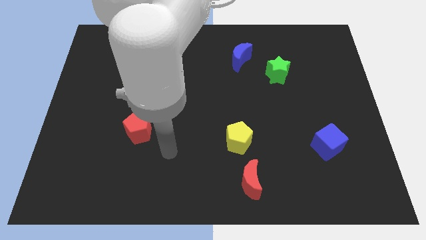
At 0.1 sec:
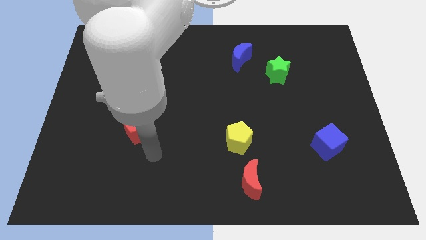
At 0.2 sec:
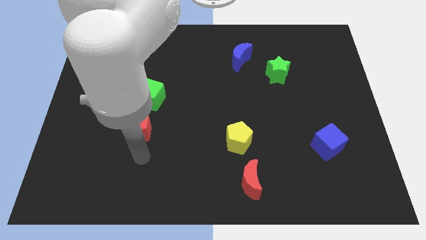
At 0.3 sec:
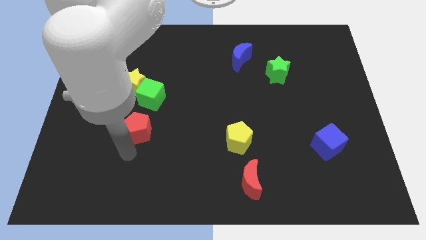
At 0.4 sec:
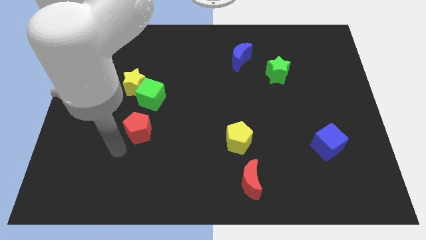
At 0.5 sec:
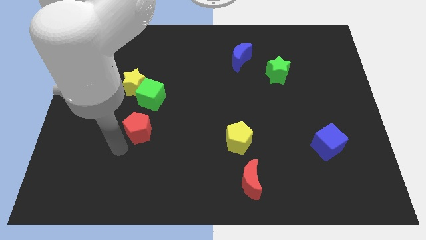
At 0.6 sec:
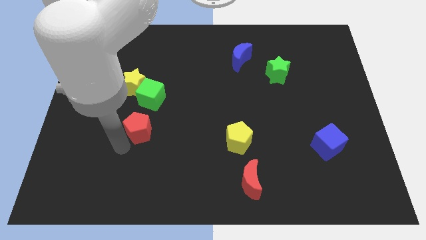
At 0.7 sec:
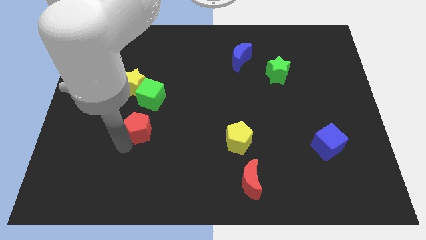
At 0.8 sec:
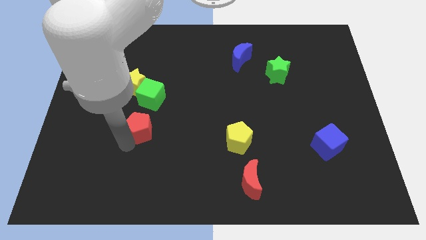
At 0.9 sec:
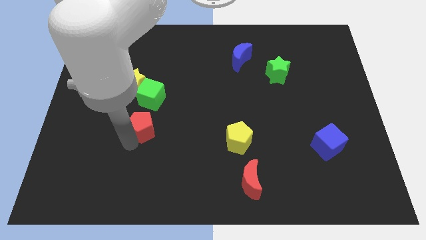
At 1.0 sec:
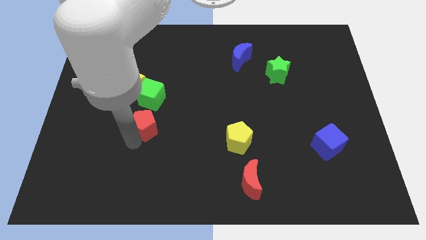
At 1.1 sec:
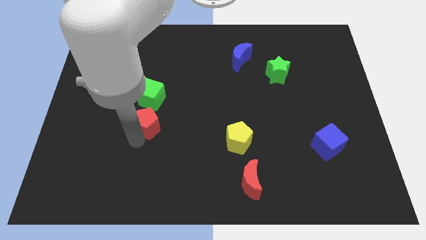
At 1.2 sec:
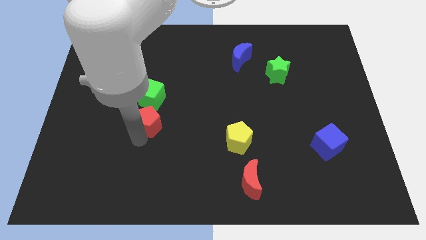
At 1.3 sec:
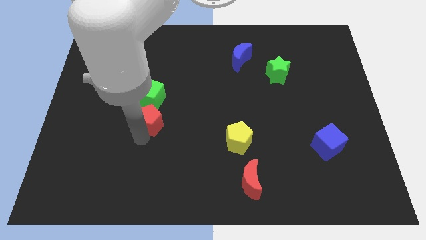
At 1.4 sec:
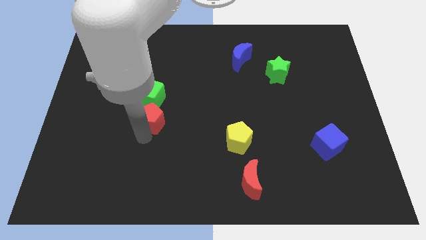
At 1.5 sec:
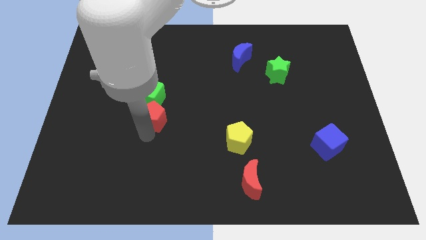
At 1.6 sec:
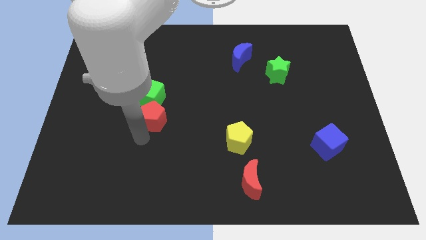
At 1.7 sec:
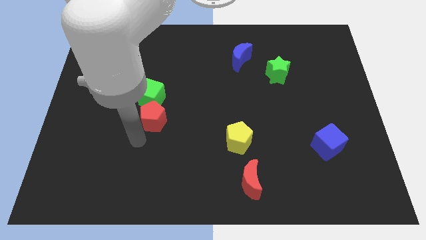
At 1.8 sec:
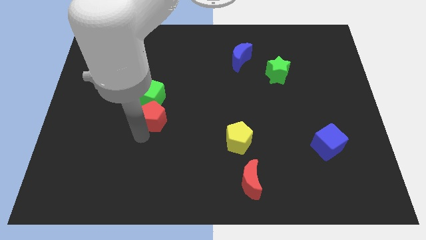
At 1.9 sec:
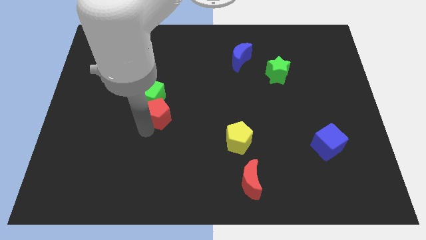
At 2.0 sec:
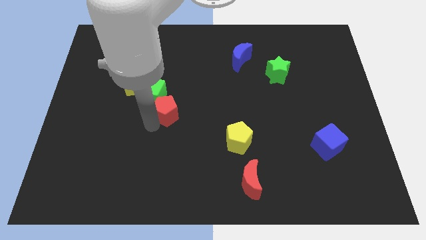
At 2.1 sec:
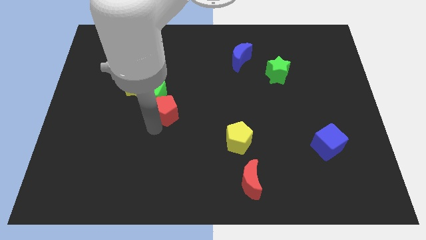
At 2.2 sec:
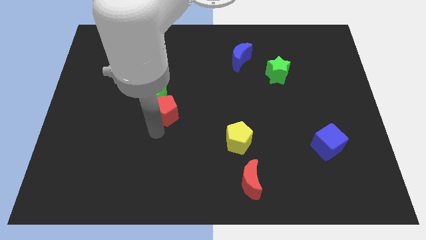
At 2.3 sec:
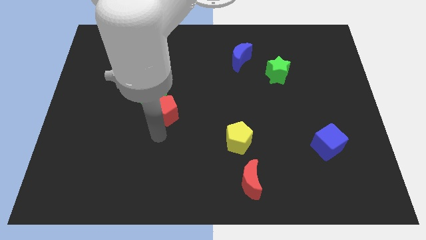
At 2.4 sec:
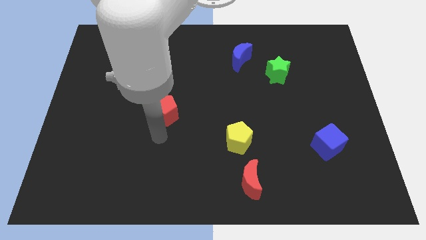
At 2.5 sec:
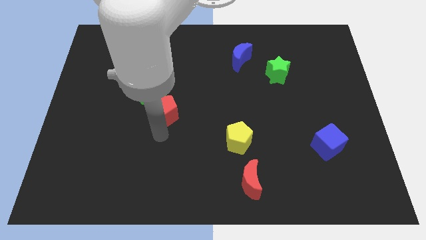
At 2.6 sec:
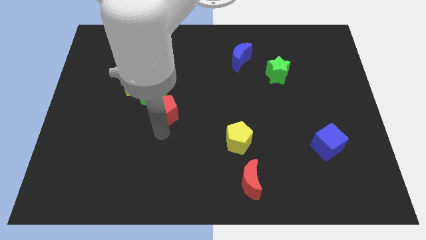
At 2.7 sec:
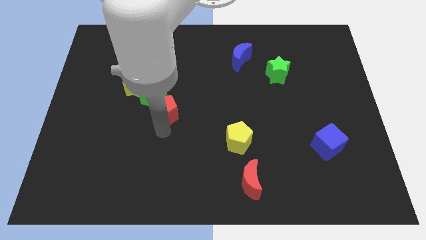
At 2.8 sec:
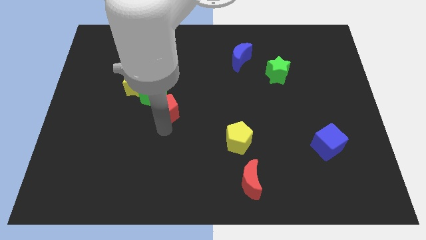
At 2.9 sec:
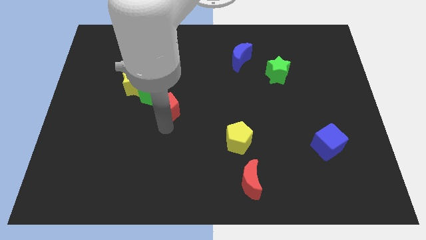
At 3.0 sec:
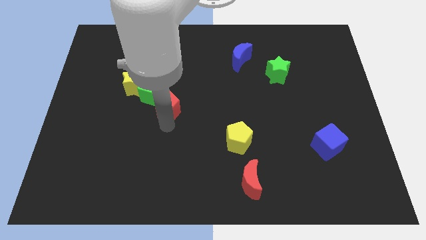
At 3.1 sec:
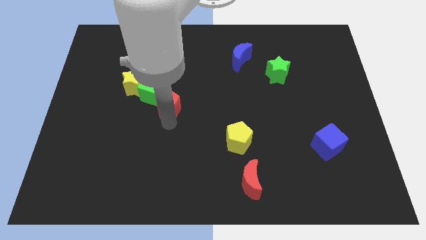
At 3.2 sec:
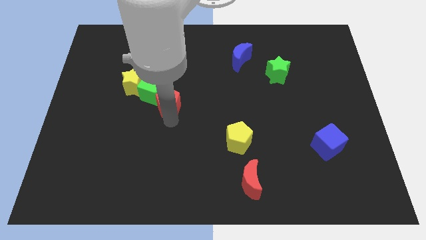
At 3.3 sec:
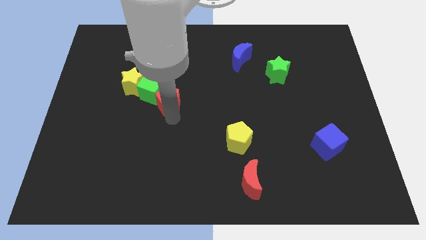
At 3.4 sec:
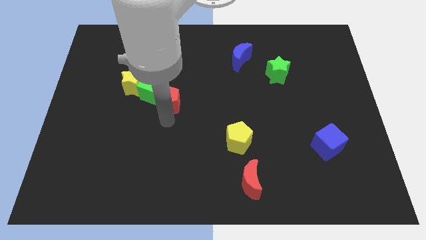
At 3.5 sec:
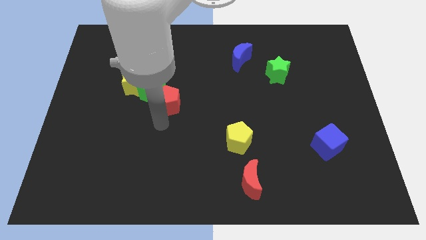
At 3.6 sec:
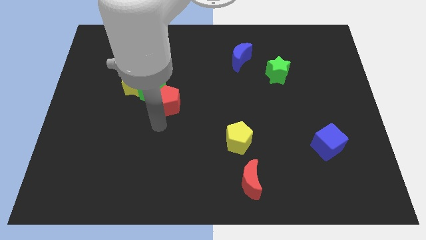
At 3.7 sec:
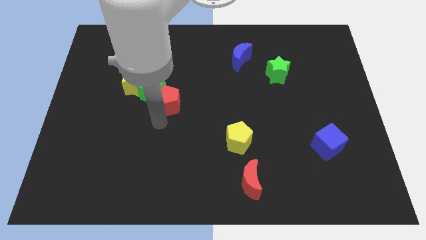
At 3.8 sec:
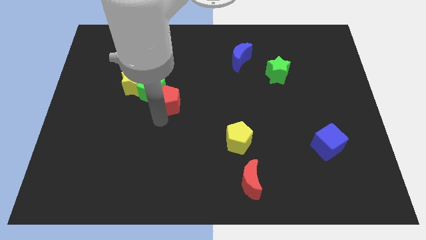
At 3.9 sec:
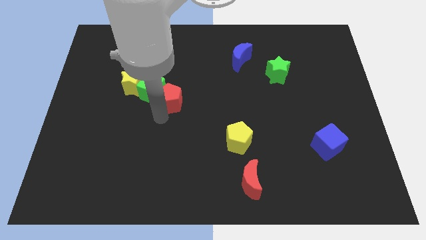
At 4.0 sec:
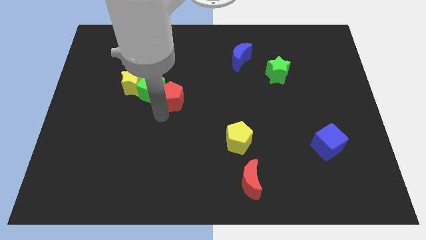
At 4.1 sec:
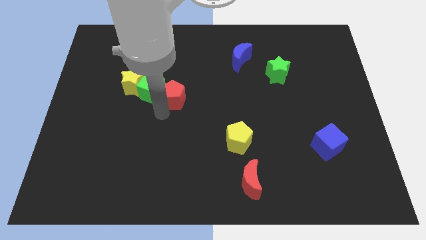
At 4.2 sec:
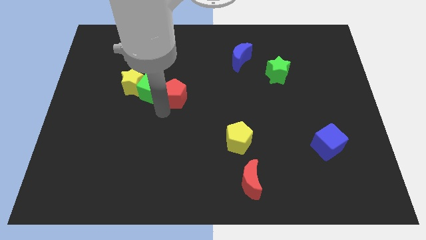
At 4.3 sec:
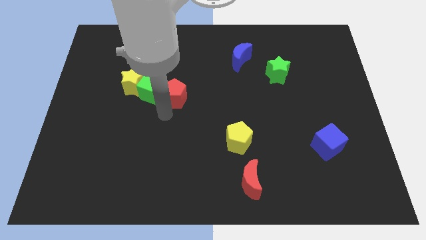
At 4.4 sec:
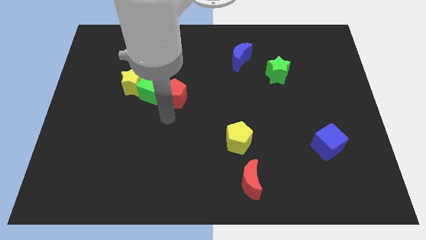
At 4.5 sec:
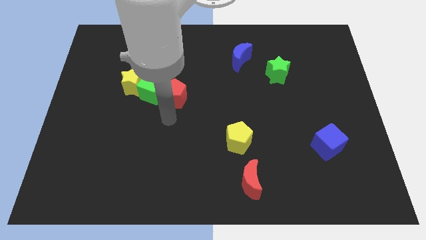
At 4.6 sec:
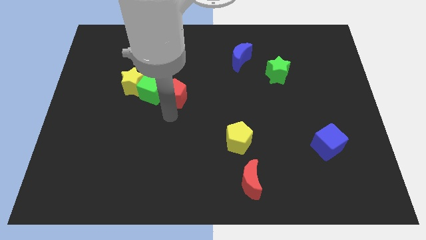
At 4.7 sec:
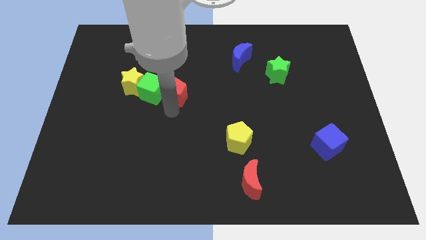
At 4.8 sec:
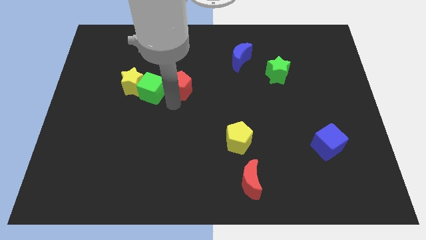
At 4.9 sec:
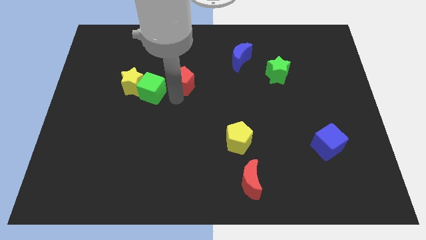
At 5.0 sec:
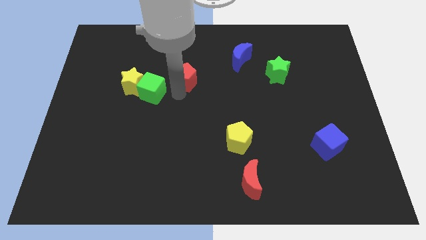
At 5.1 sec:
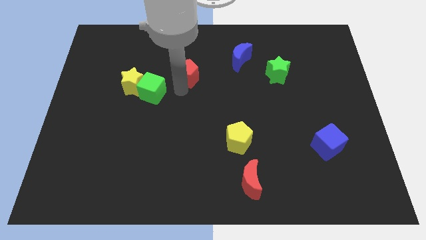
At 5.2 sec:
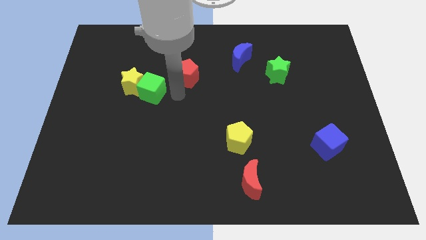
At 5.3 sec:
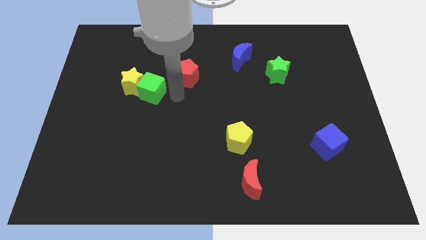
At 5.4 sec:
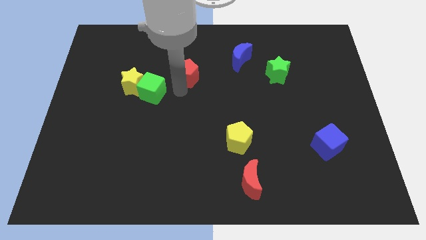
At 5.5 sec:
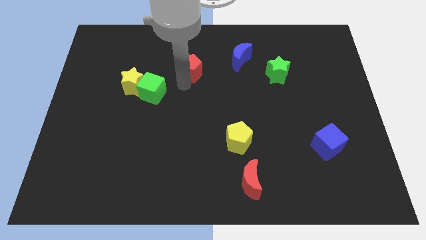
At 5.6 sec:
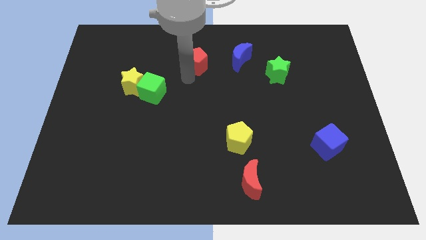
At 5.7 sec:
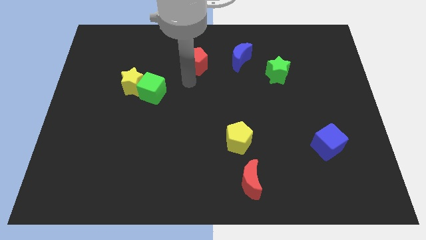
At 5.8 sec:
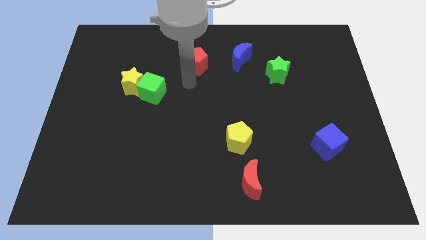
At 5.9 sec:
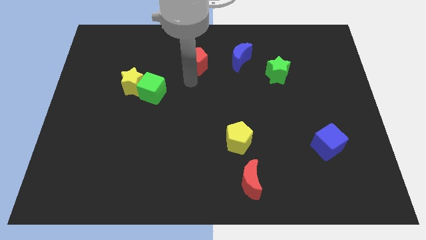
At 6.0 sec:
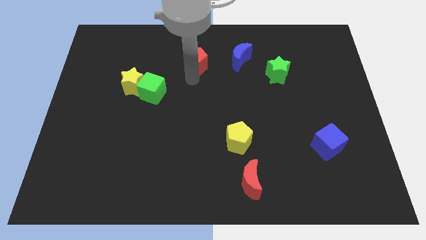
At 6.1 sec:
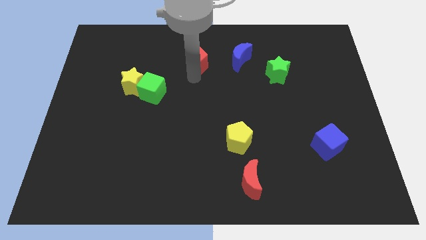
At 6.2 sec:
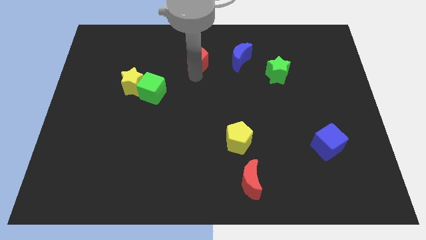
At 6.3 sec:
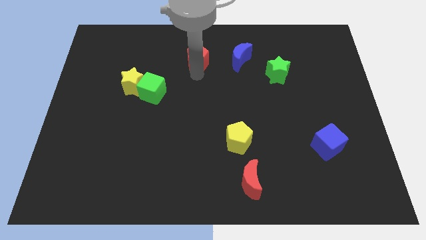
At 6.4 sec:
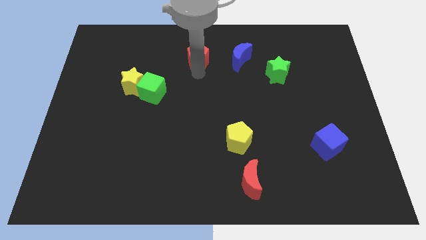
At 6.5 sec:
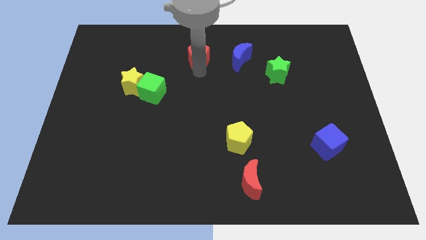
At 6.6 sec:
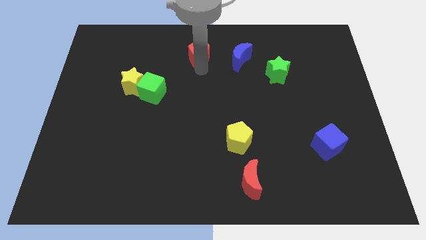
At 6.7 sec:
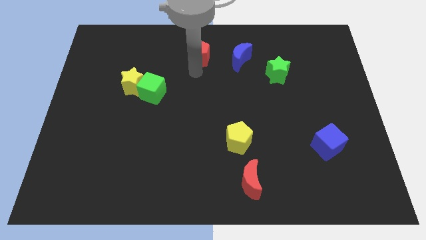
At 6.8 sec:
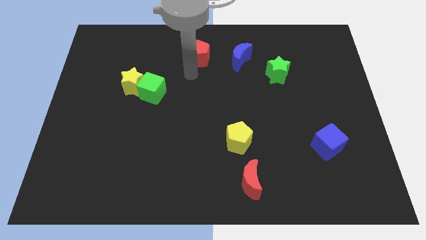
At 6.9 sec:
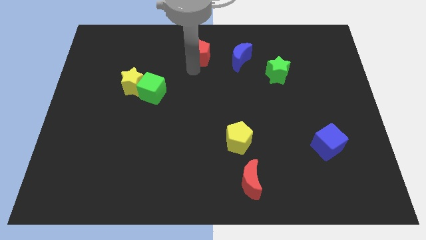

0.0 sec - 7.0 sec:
move the red pentagon to the towards your base

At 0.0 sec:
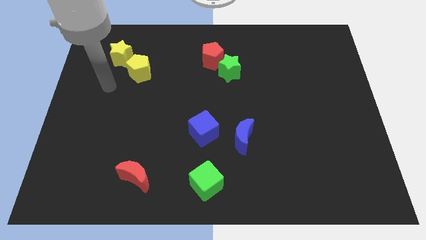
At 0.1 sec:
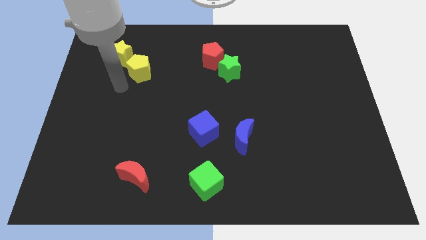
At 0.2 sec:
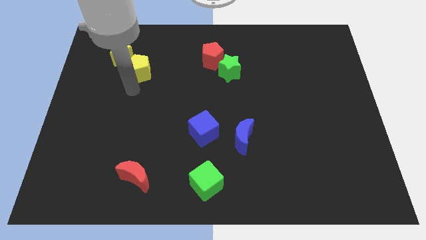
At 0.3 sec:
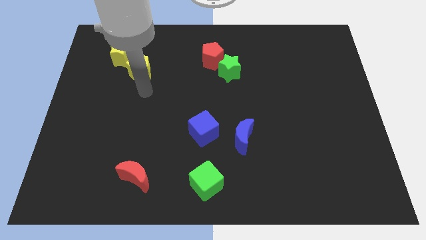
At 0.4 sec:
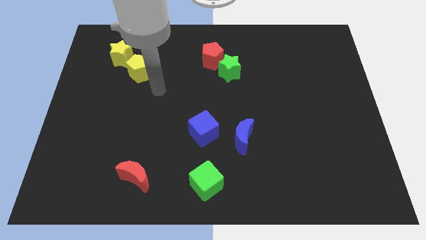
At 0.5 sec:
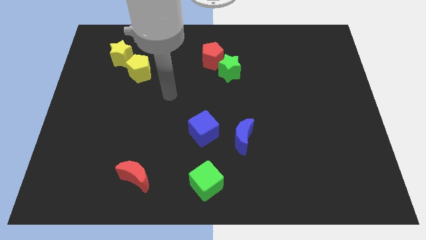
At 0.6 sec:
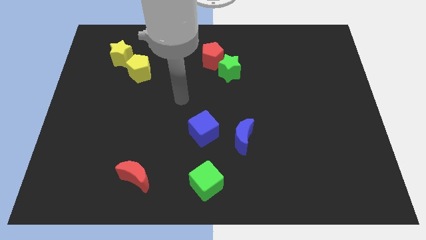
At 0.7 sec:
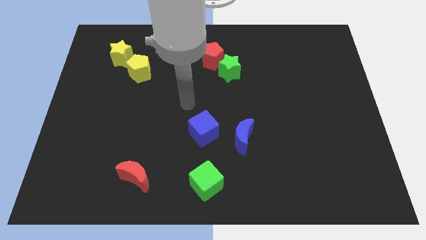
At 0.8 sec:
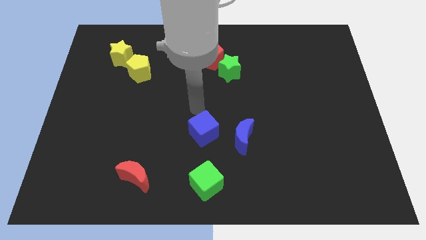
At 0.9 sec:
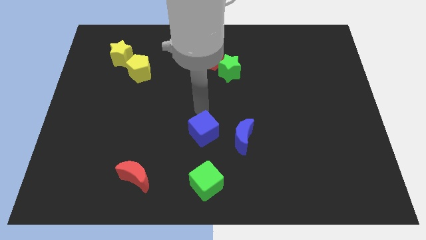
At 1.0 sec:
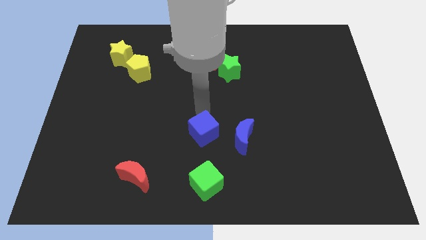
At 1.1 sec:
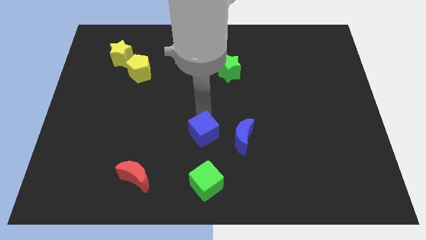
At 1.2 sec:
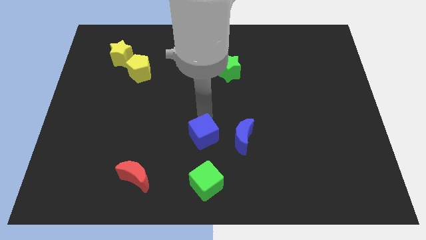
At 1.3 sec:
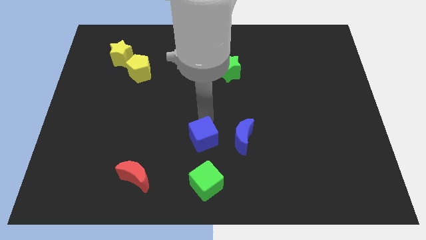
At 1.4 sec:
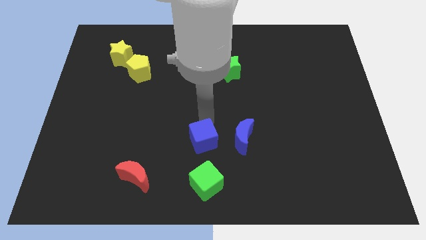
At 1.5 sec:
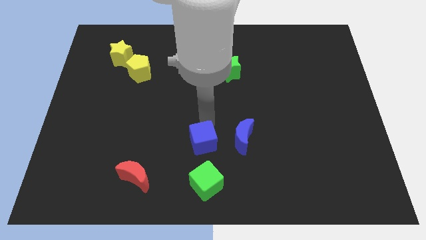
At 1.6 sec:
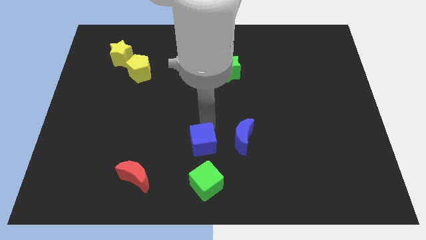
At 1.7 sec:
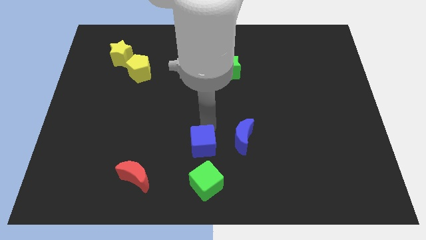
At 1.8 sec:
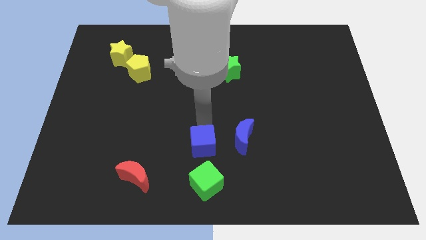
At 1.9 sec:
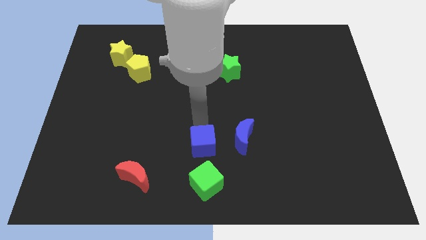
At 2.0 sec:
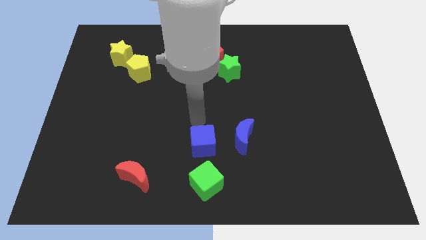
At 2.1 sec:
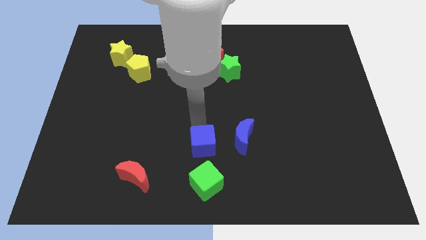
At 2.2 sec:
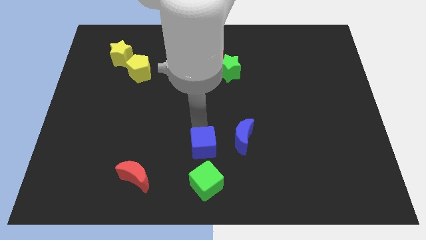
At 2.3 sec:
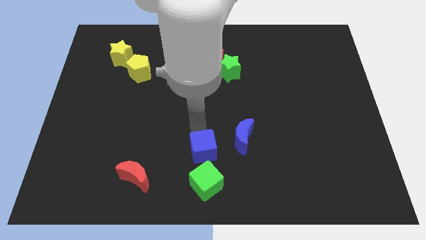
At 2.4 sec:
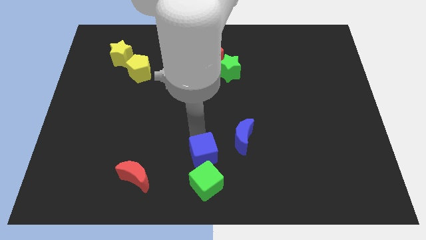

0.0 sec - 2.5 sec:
push the blue cube to the bottom side
